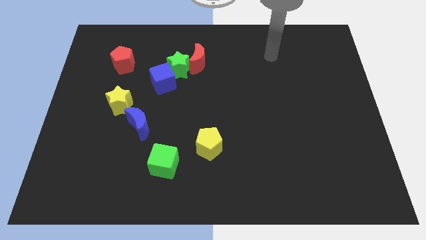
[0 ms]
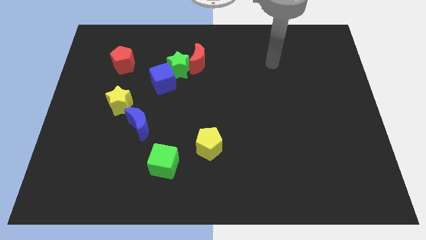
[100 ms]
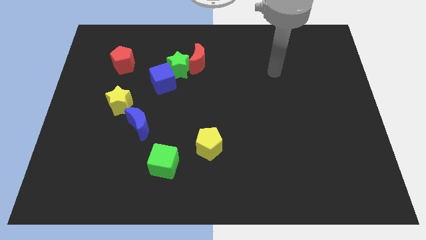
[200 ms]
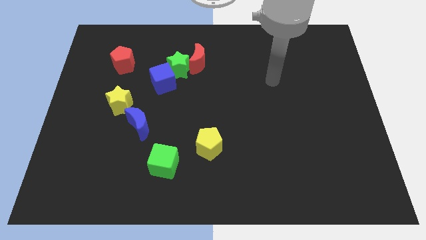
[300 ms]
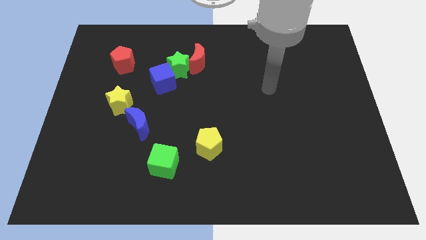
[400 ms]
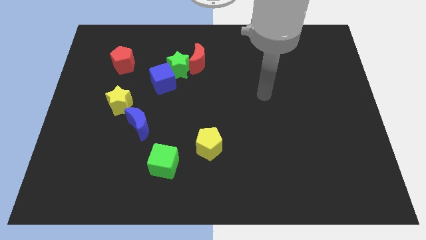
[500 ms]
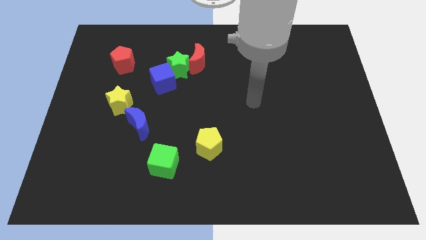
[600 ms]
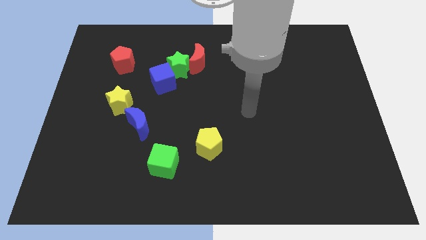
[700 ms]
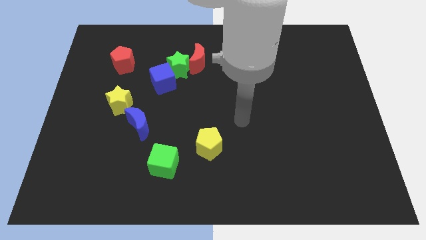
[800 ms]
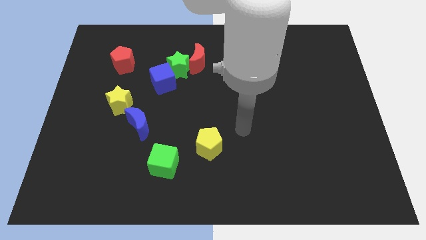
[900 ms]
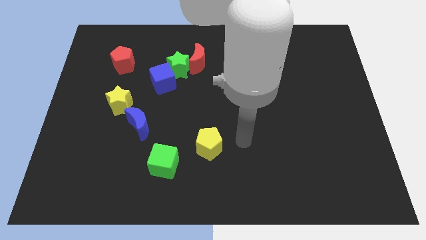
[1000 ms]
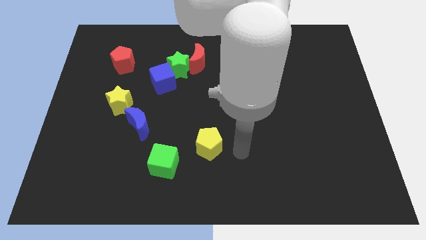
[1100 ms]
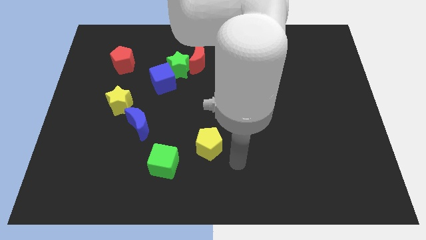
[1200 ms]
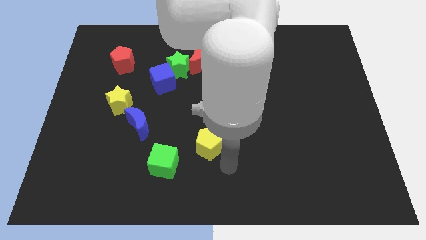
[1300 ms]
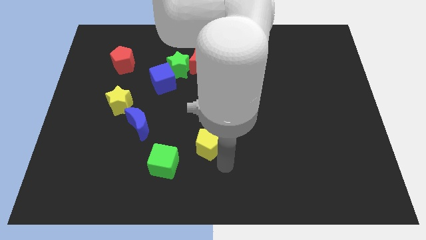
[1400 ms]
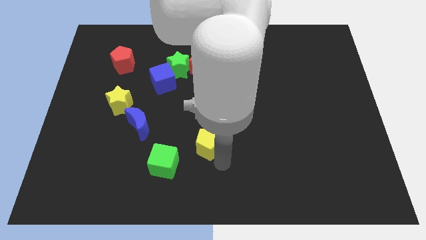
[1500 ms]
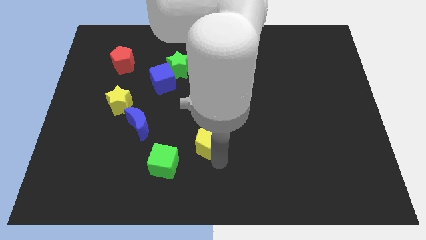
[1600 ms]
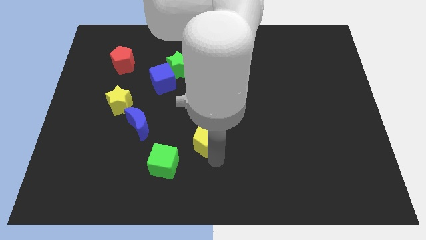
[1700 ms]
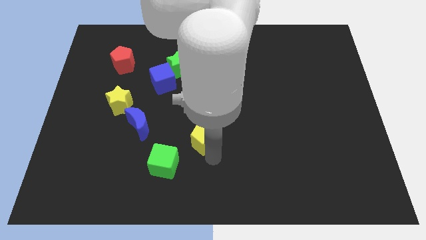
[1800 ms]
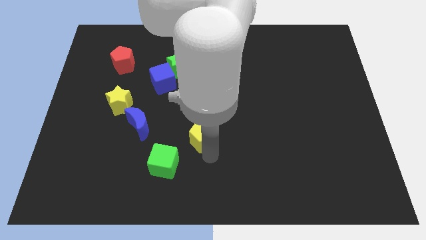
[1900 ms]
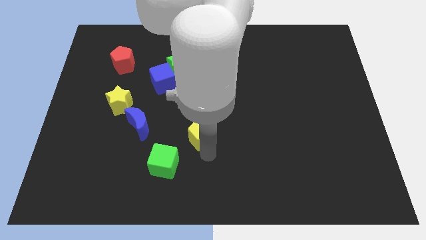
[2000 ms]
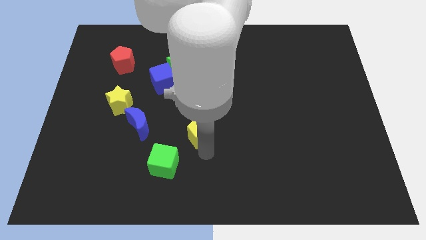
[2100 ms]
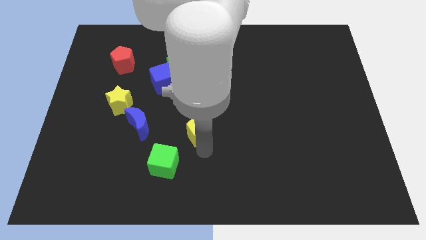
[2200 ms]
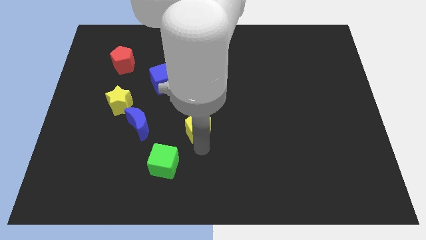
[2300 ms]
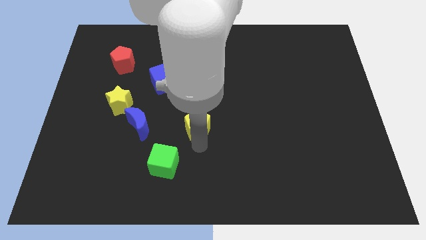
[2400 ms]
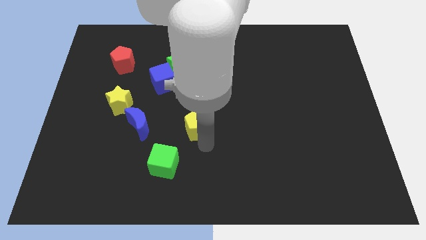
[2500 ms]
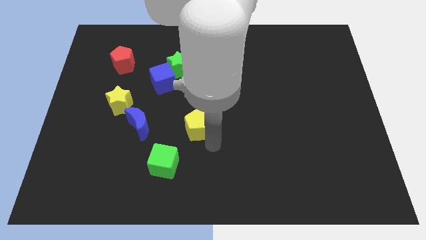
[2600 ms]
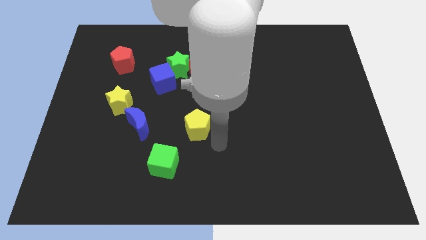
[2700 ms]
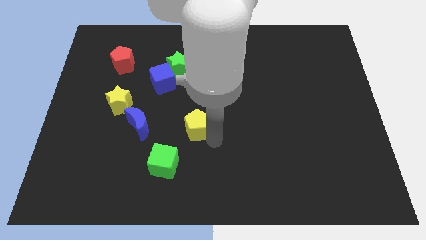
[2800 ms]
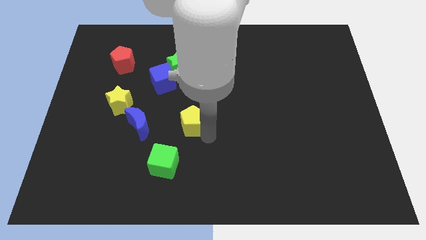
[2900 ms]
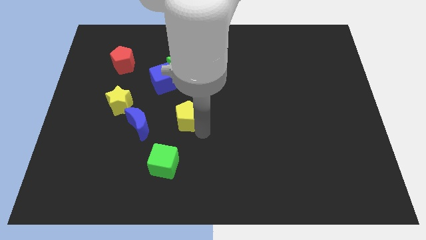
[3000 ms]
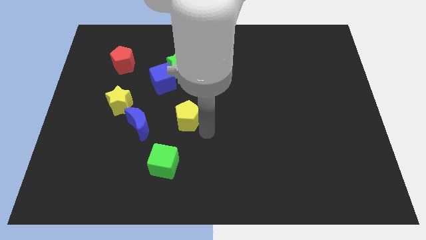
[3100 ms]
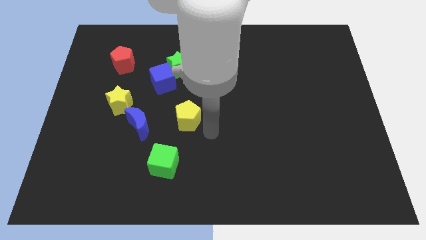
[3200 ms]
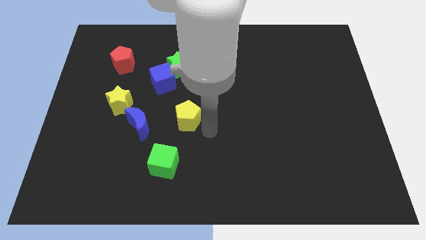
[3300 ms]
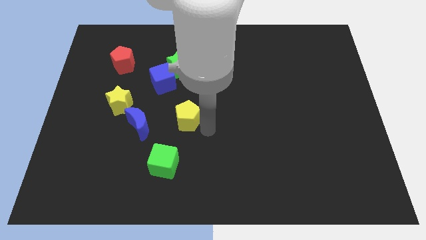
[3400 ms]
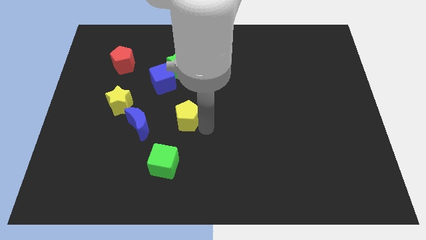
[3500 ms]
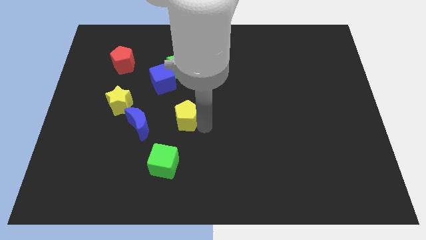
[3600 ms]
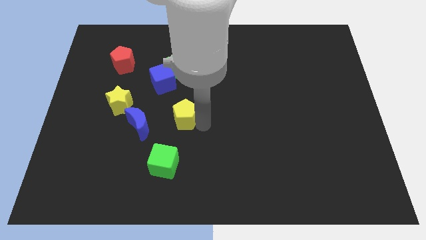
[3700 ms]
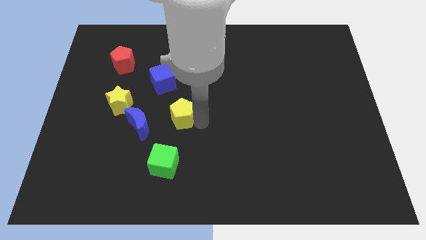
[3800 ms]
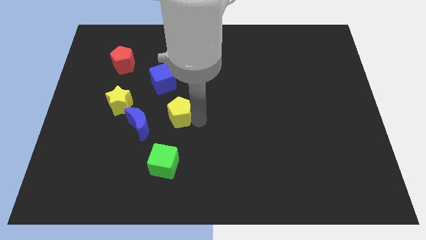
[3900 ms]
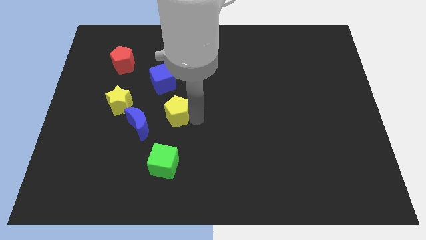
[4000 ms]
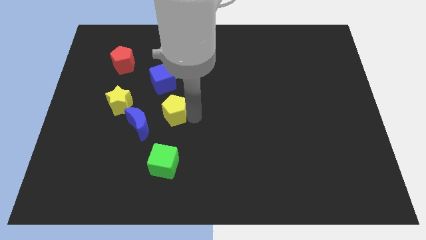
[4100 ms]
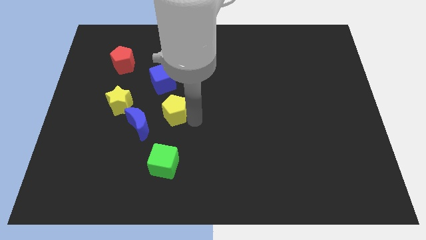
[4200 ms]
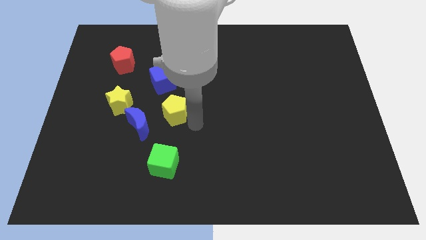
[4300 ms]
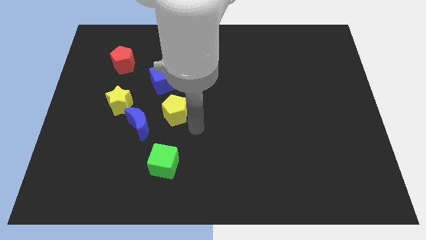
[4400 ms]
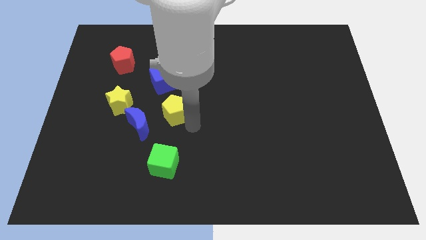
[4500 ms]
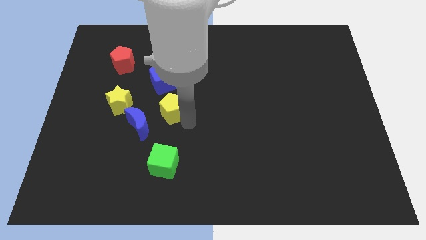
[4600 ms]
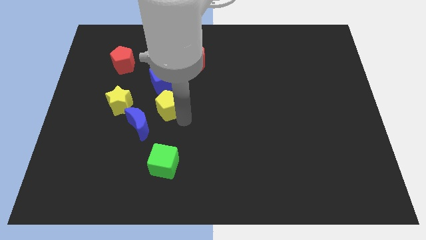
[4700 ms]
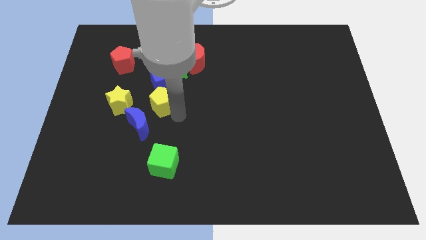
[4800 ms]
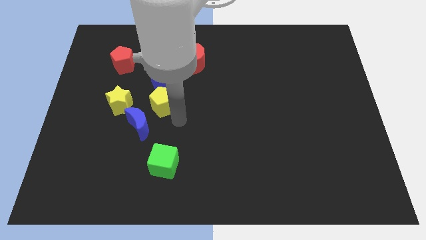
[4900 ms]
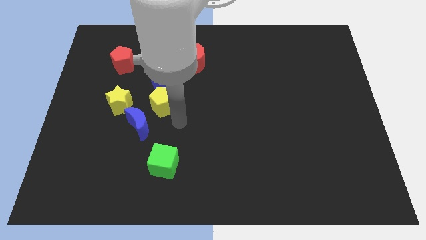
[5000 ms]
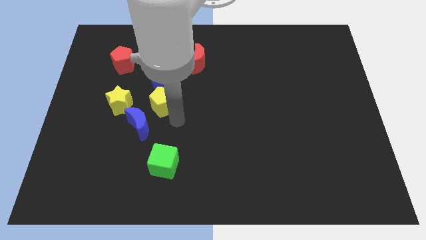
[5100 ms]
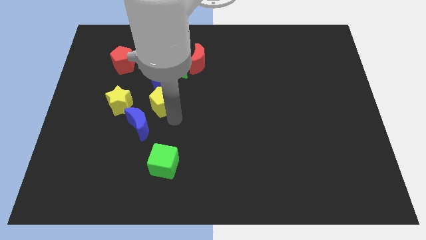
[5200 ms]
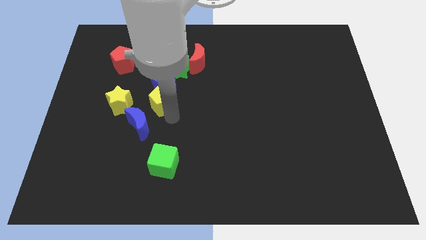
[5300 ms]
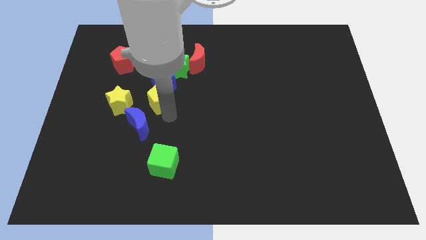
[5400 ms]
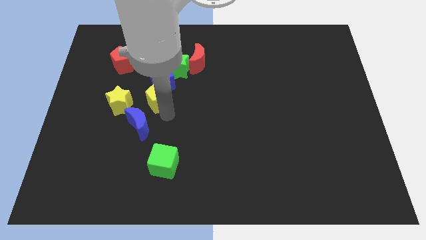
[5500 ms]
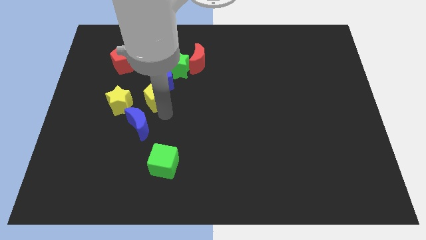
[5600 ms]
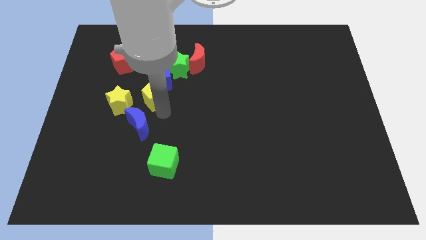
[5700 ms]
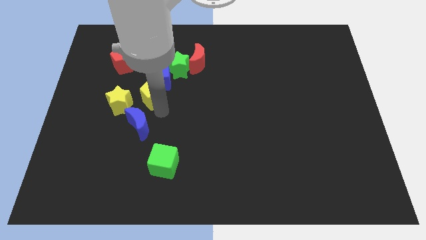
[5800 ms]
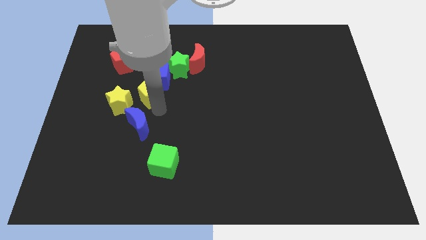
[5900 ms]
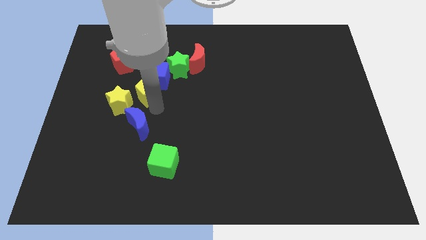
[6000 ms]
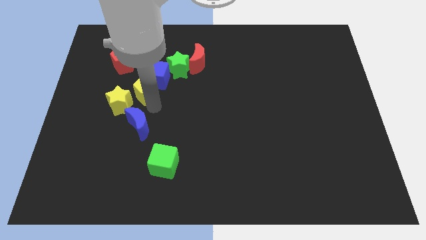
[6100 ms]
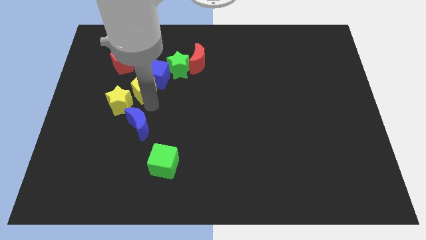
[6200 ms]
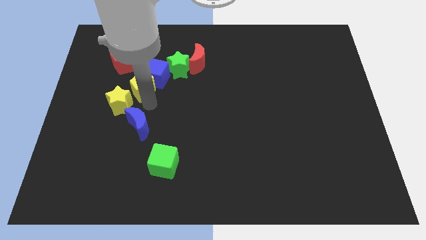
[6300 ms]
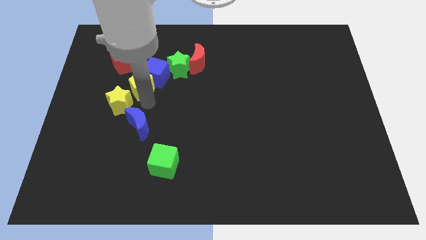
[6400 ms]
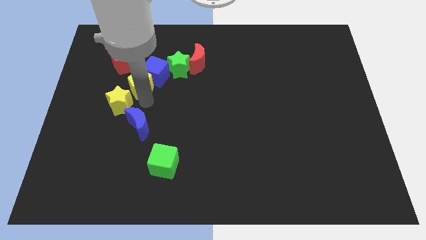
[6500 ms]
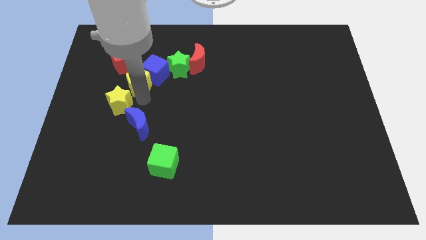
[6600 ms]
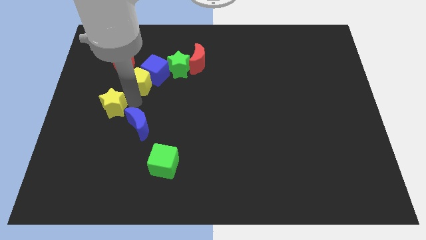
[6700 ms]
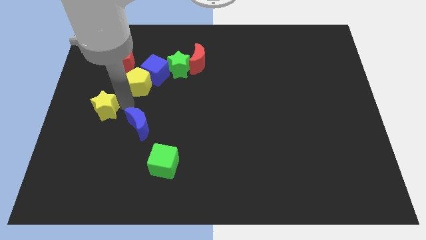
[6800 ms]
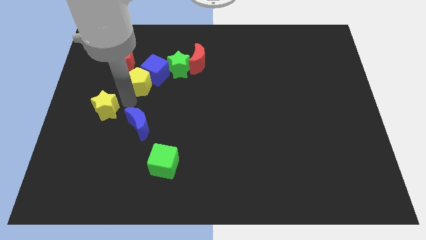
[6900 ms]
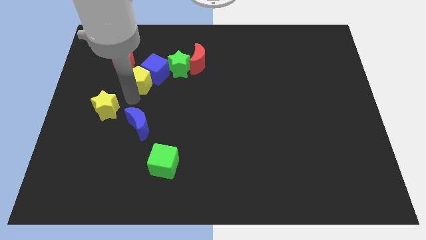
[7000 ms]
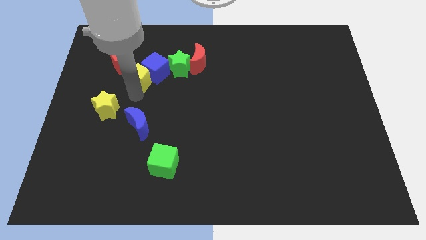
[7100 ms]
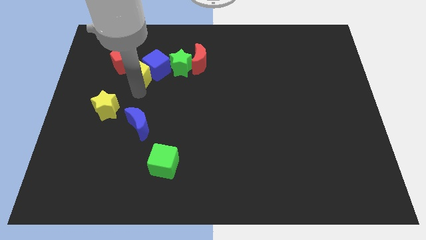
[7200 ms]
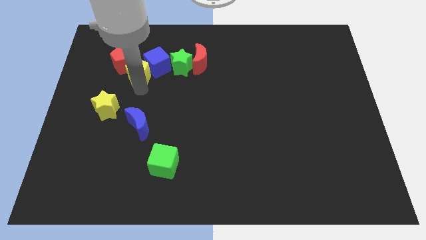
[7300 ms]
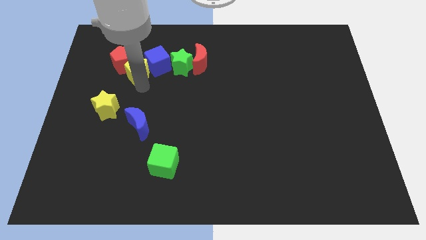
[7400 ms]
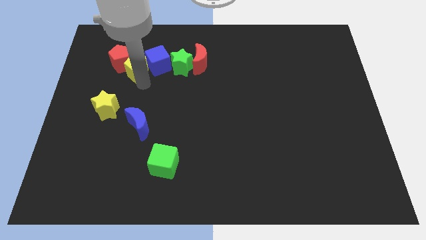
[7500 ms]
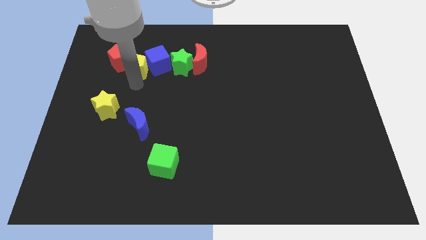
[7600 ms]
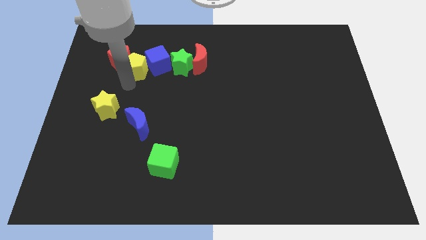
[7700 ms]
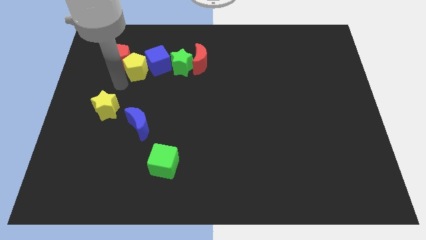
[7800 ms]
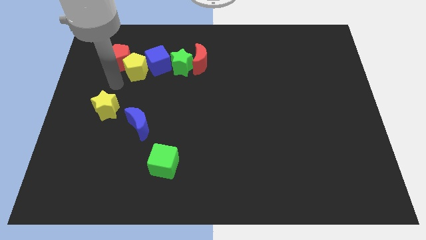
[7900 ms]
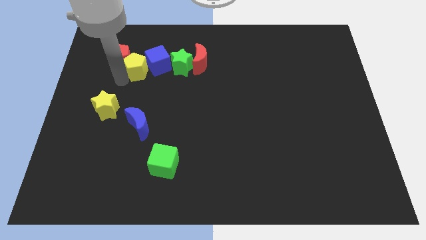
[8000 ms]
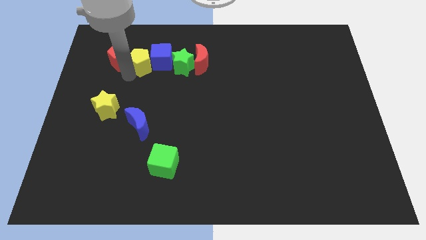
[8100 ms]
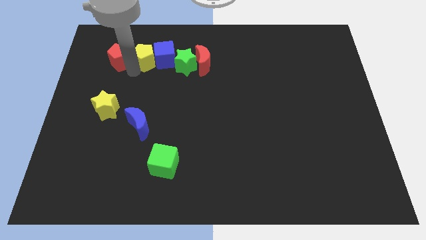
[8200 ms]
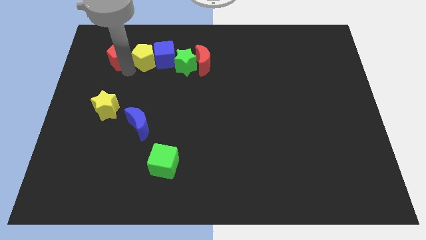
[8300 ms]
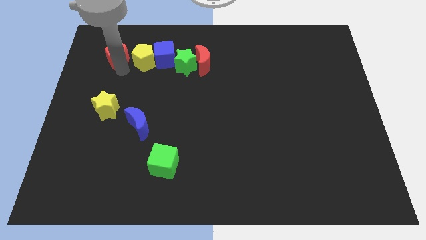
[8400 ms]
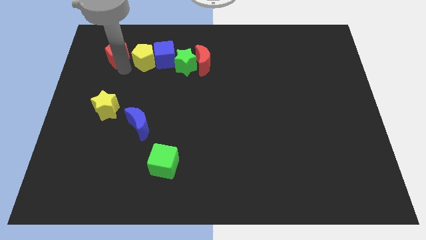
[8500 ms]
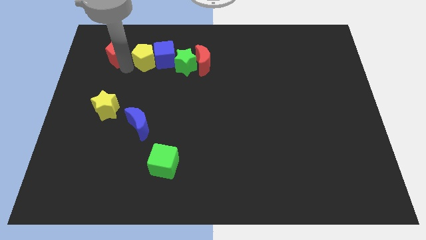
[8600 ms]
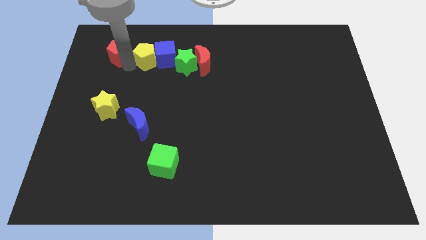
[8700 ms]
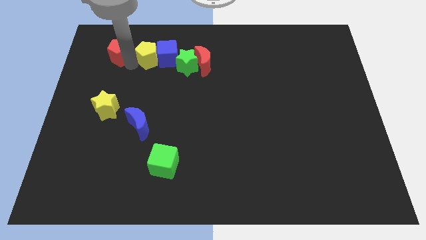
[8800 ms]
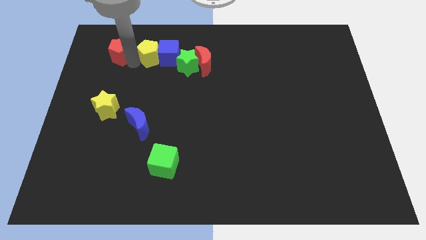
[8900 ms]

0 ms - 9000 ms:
slide the yellow pentagon to the top left of the green star
